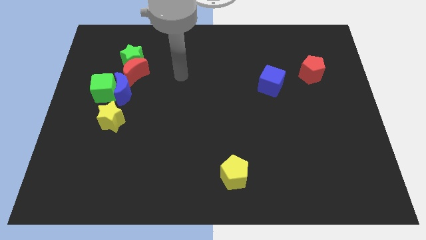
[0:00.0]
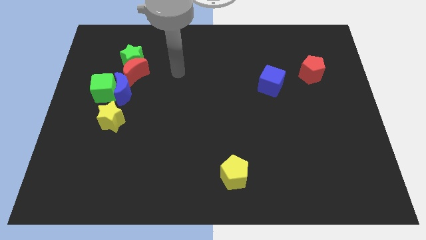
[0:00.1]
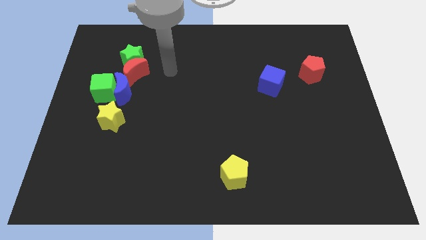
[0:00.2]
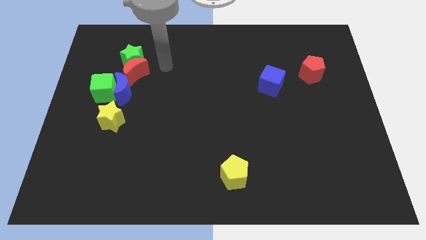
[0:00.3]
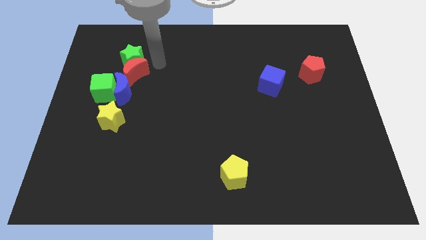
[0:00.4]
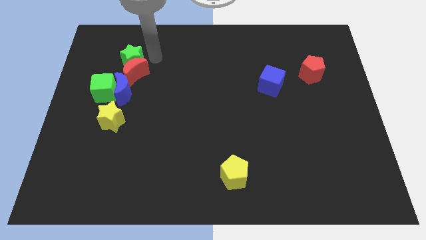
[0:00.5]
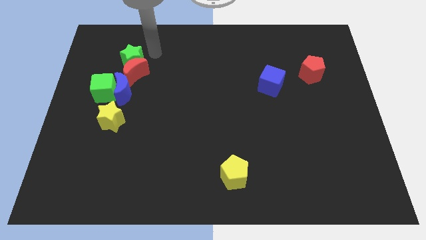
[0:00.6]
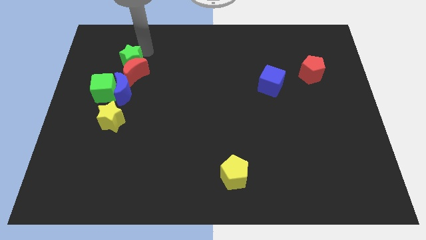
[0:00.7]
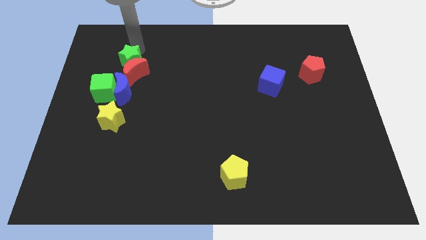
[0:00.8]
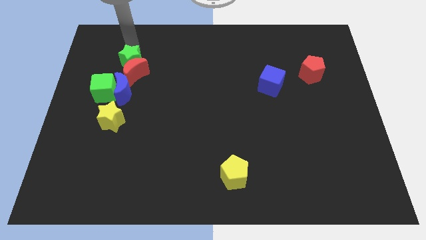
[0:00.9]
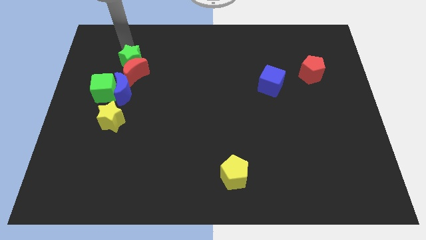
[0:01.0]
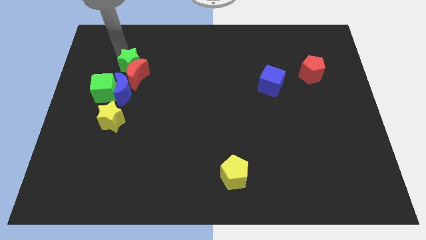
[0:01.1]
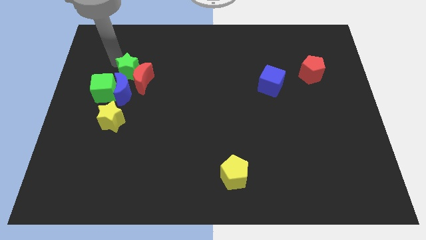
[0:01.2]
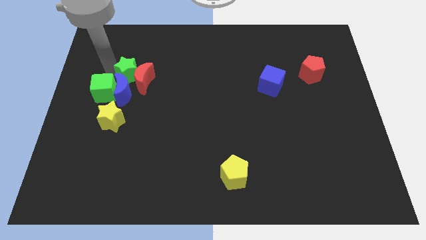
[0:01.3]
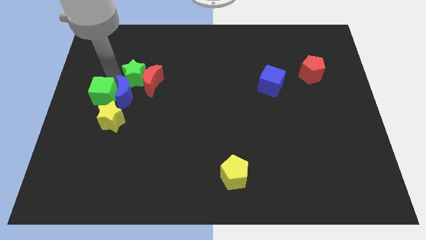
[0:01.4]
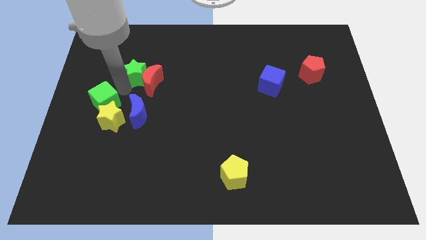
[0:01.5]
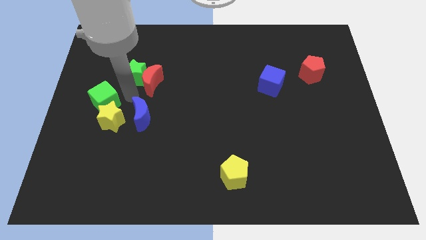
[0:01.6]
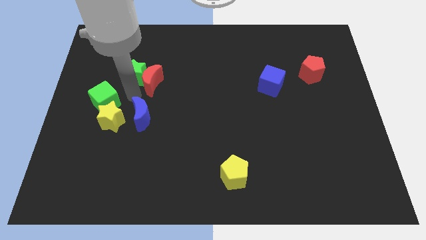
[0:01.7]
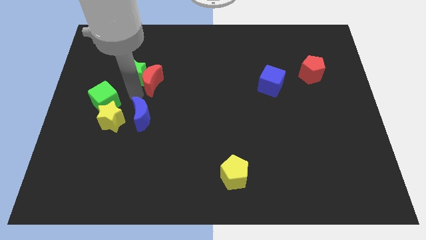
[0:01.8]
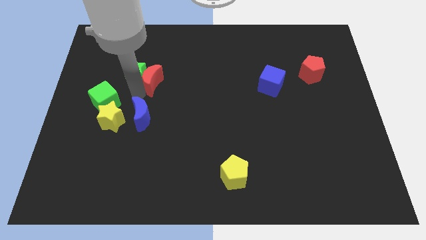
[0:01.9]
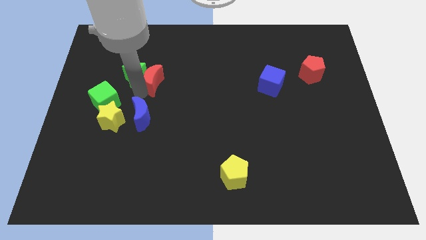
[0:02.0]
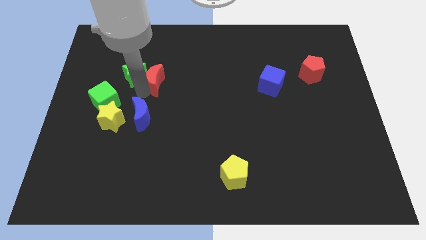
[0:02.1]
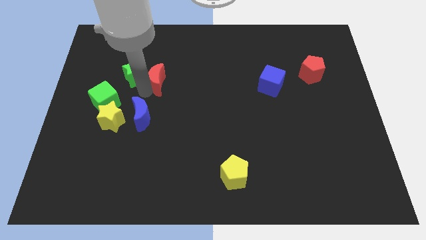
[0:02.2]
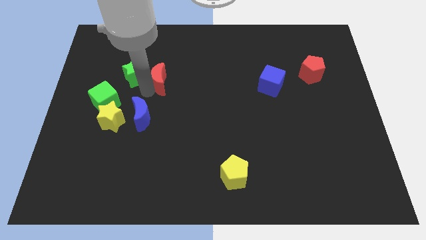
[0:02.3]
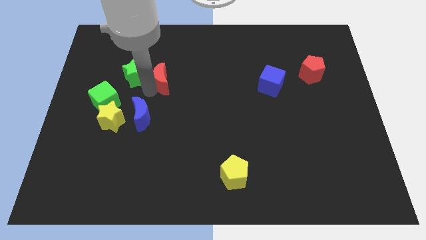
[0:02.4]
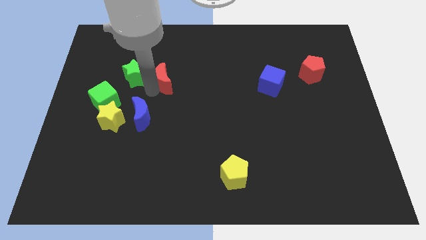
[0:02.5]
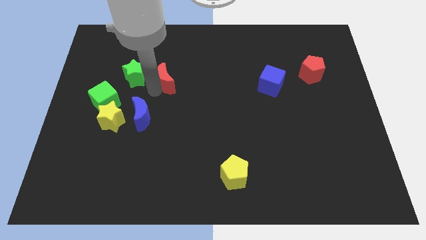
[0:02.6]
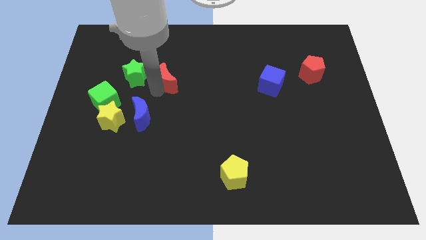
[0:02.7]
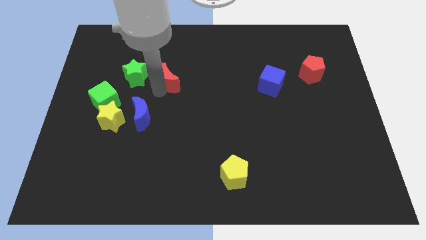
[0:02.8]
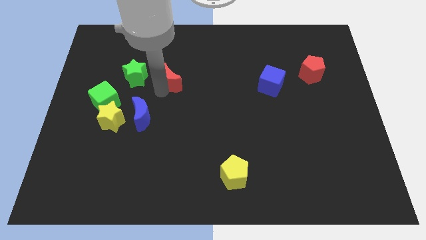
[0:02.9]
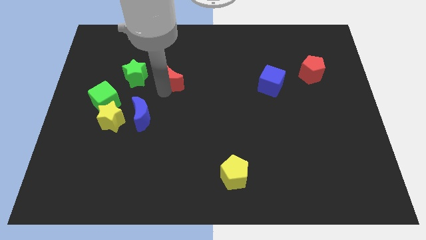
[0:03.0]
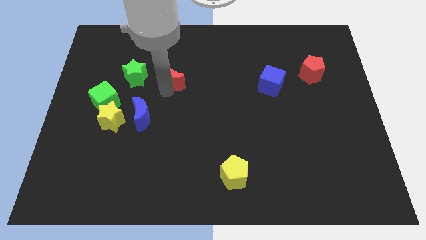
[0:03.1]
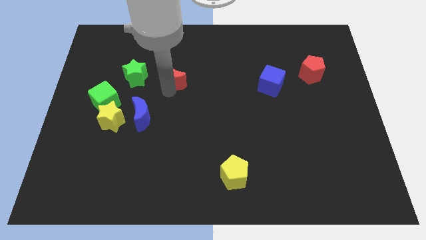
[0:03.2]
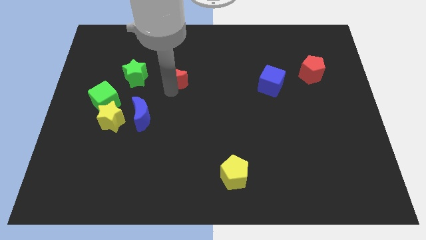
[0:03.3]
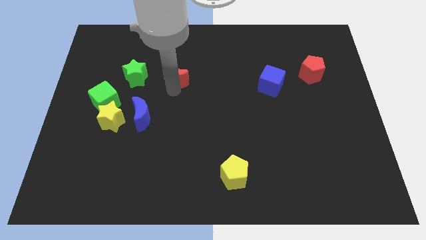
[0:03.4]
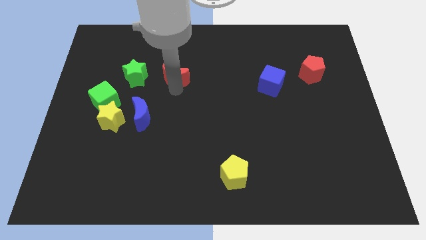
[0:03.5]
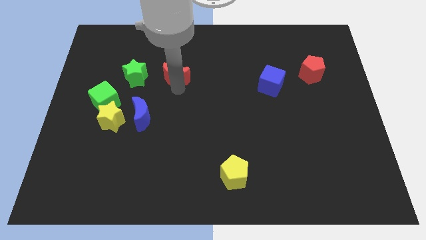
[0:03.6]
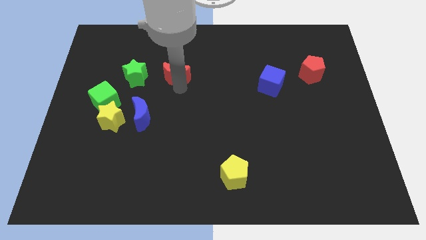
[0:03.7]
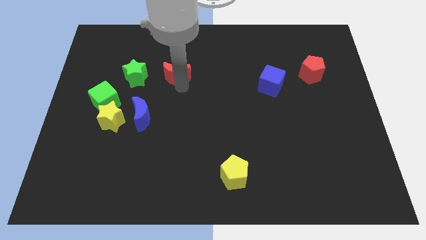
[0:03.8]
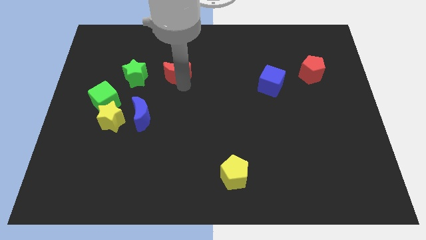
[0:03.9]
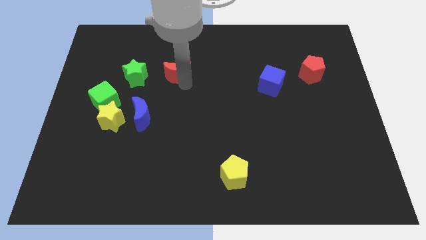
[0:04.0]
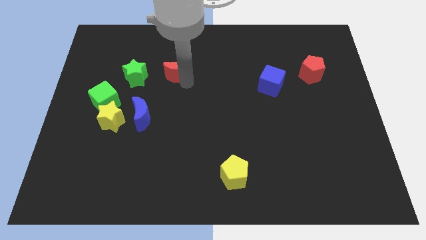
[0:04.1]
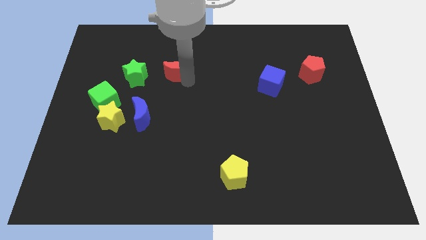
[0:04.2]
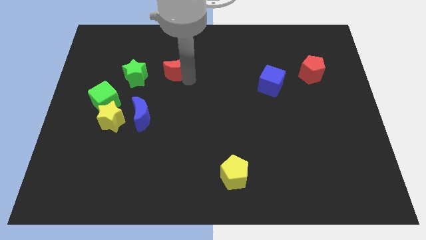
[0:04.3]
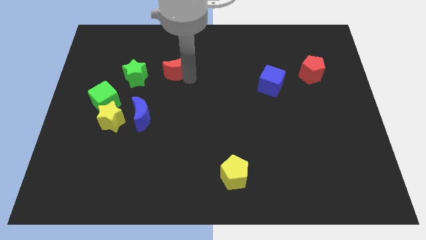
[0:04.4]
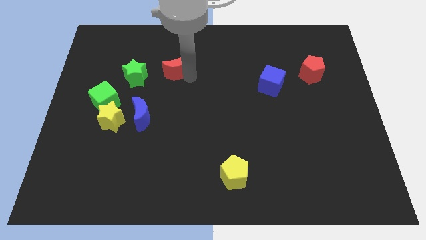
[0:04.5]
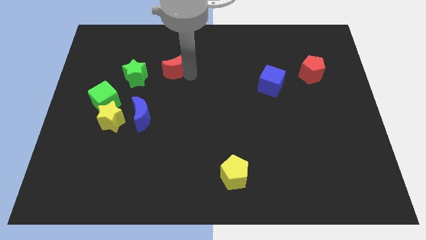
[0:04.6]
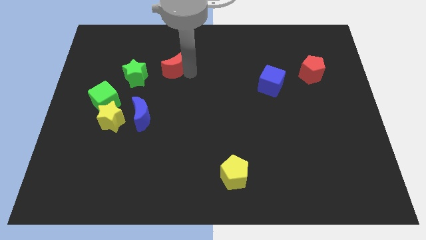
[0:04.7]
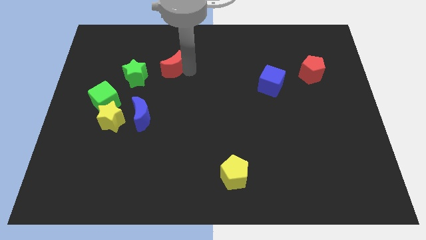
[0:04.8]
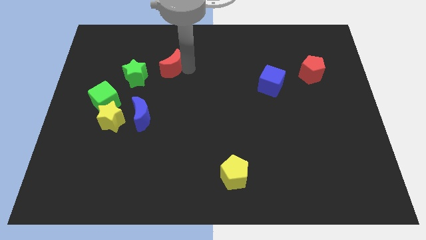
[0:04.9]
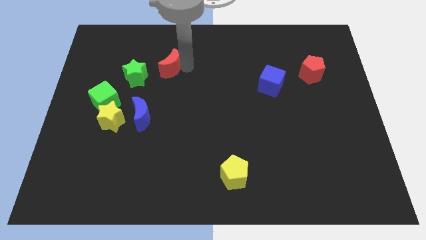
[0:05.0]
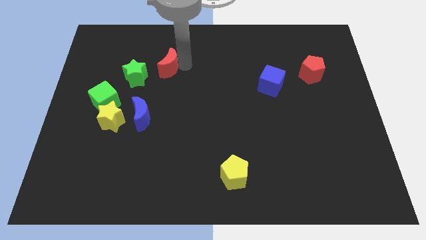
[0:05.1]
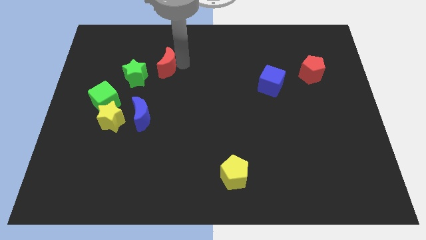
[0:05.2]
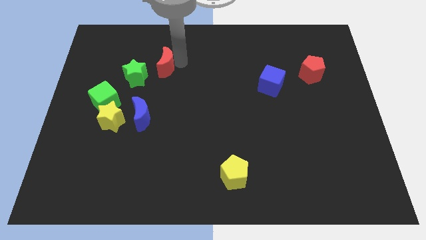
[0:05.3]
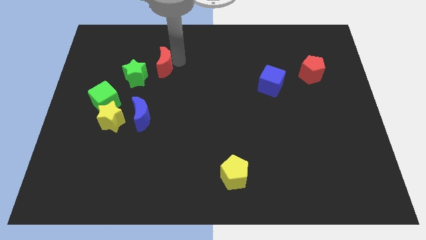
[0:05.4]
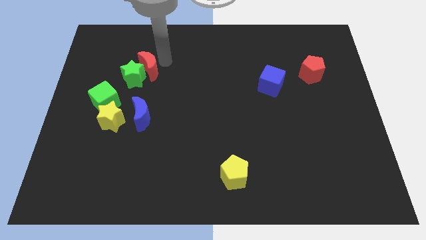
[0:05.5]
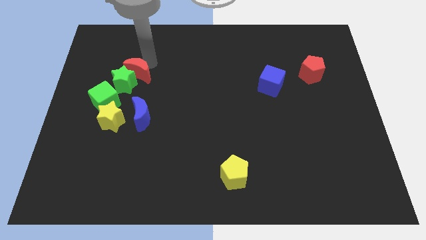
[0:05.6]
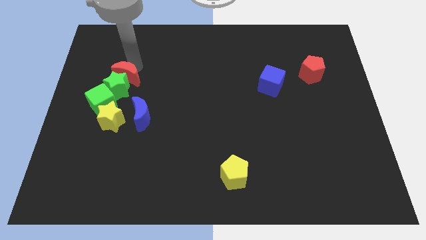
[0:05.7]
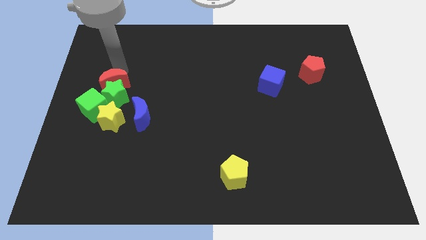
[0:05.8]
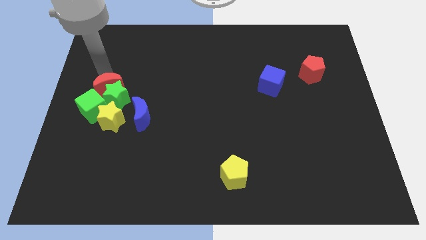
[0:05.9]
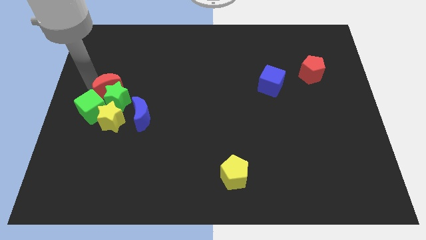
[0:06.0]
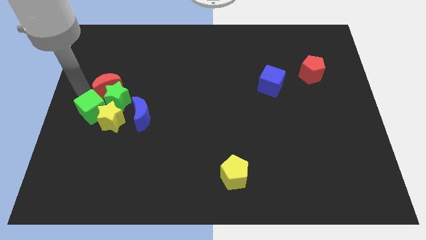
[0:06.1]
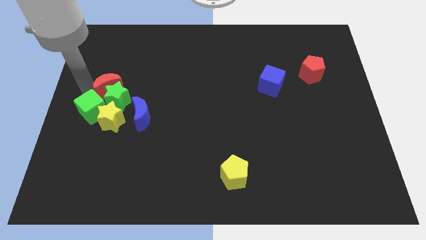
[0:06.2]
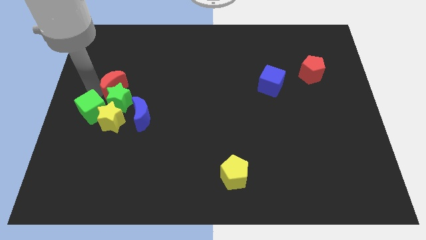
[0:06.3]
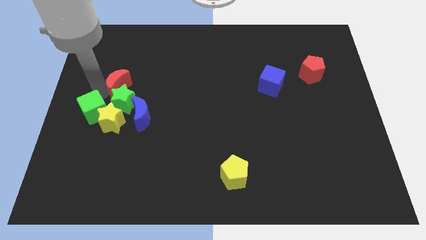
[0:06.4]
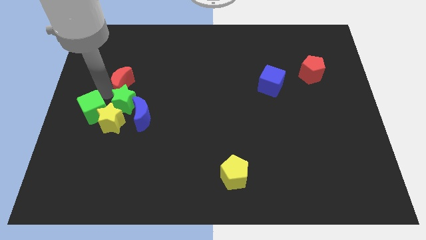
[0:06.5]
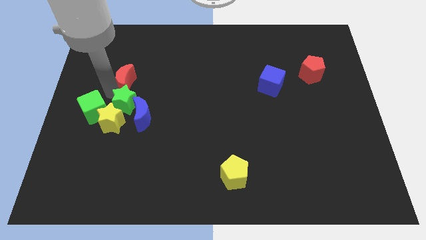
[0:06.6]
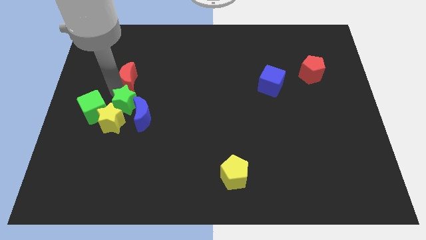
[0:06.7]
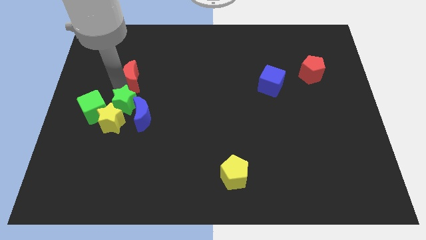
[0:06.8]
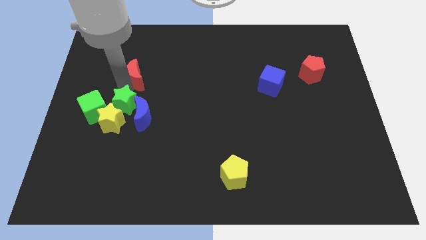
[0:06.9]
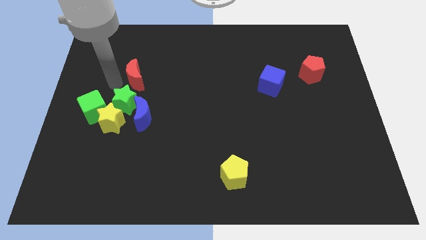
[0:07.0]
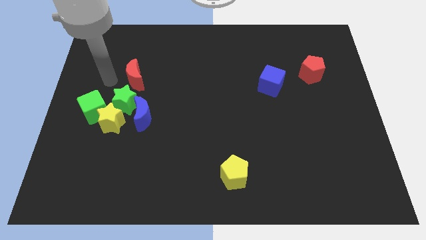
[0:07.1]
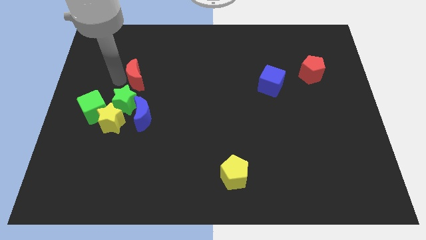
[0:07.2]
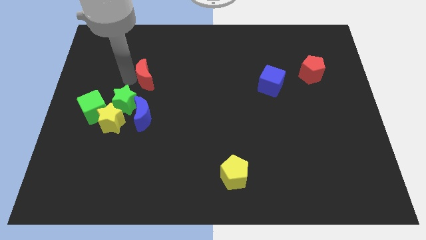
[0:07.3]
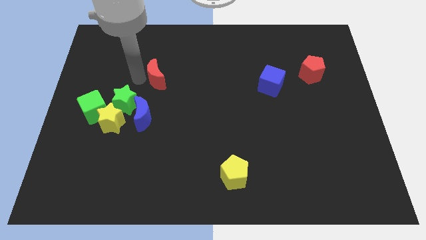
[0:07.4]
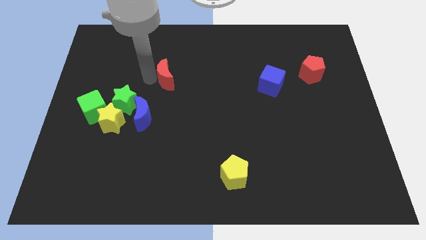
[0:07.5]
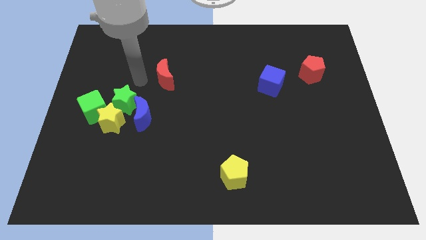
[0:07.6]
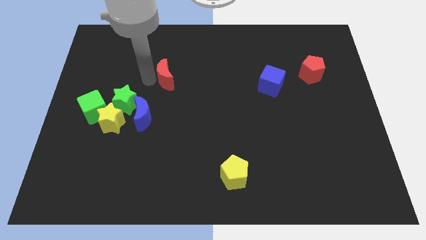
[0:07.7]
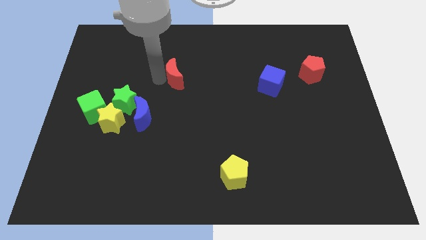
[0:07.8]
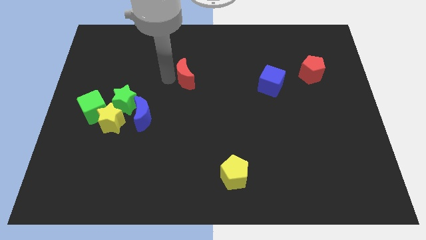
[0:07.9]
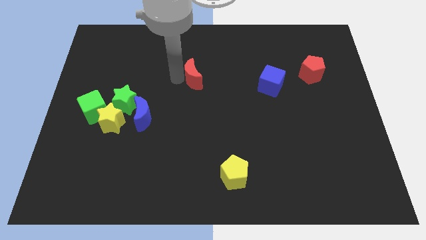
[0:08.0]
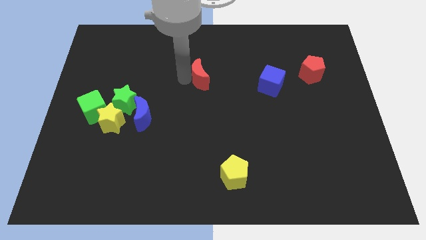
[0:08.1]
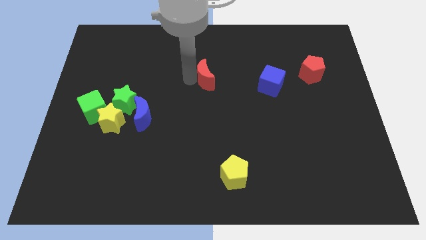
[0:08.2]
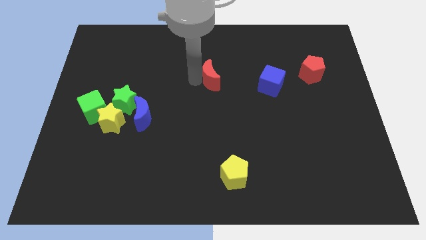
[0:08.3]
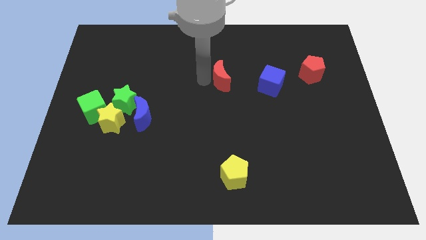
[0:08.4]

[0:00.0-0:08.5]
push the red moon right
